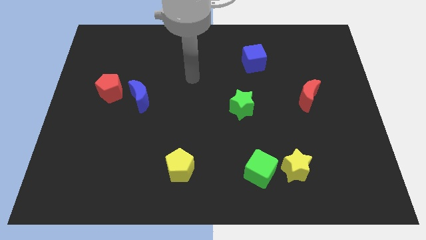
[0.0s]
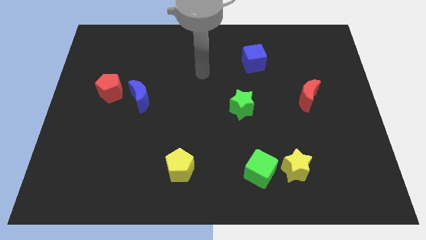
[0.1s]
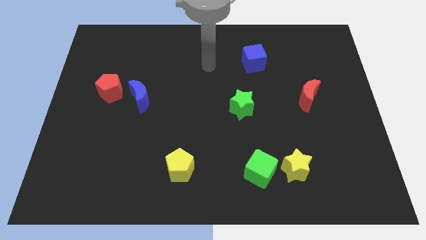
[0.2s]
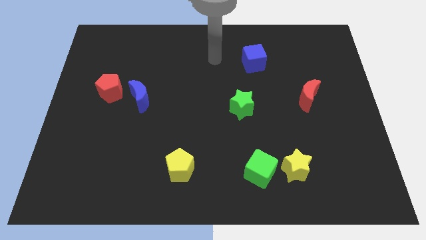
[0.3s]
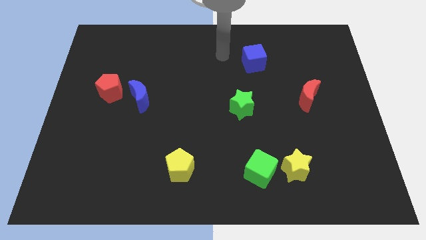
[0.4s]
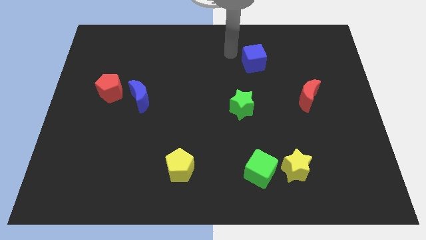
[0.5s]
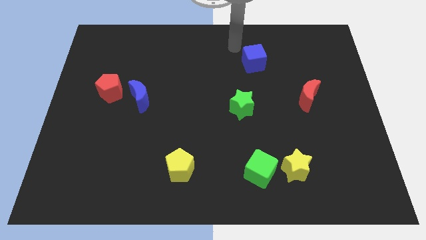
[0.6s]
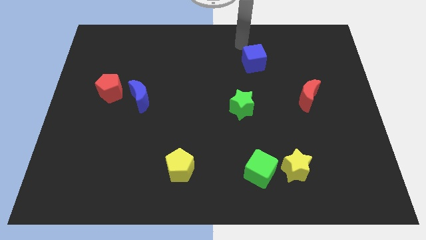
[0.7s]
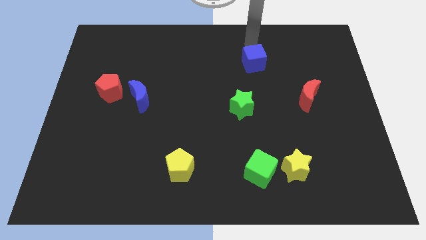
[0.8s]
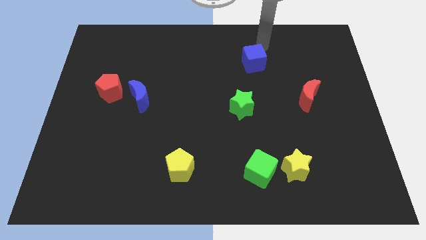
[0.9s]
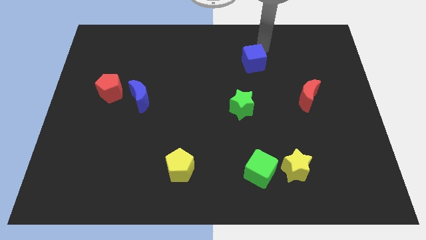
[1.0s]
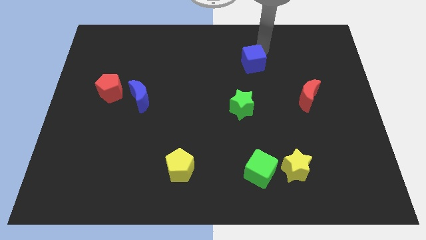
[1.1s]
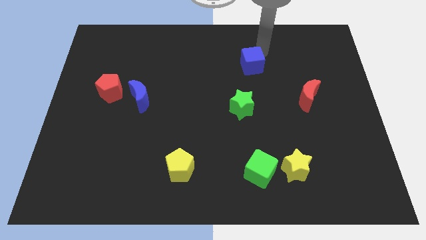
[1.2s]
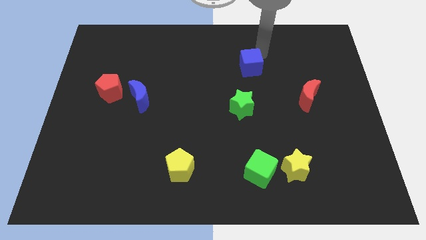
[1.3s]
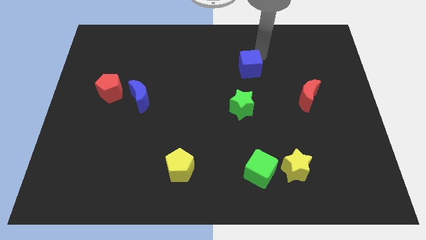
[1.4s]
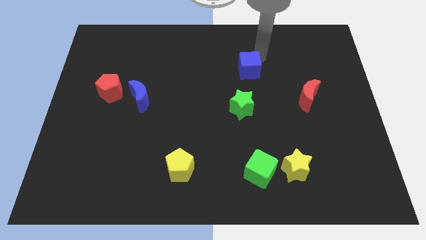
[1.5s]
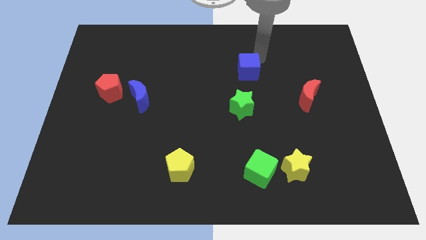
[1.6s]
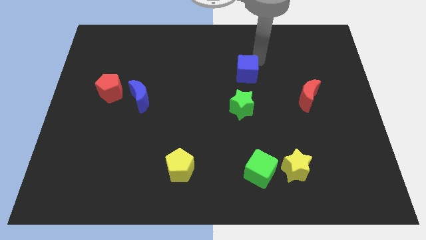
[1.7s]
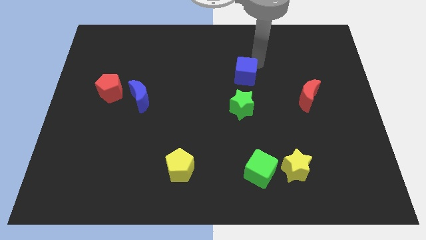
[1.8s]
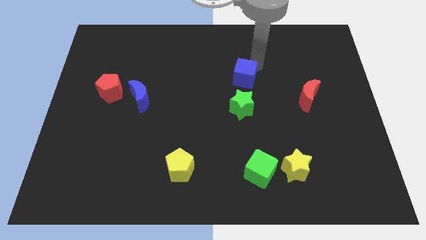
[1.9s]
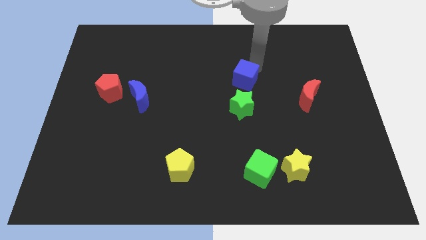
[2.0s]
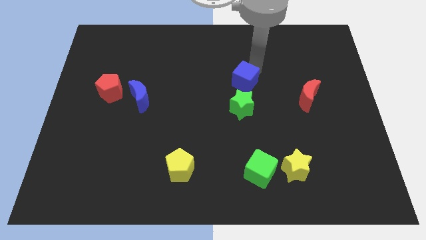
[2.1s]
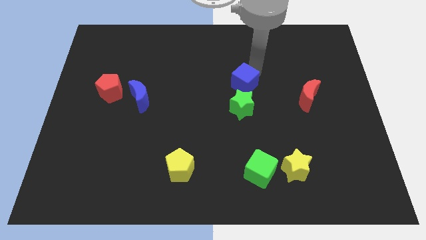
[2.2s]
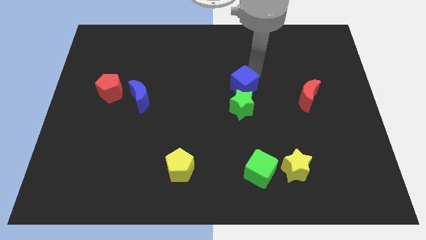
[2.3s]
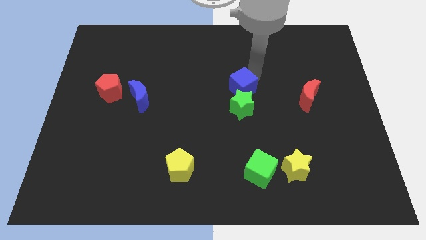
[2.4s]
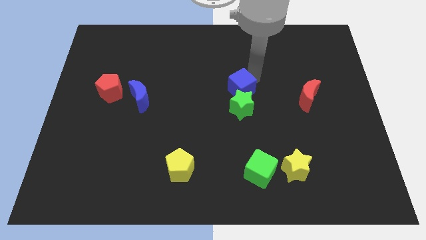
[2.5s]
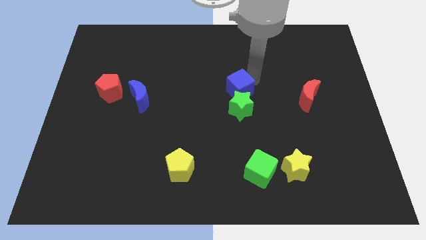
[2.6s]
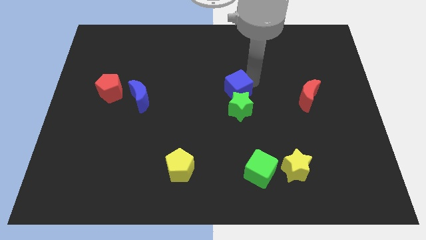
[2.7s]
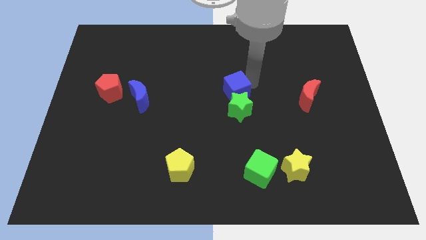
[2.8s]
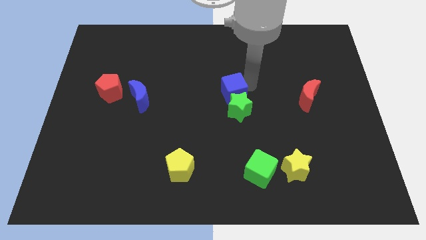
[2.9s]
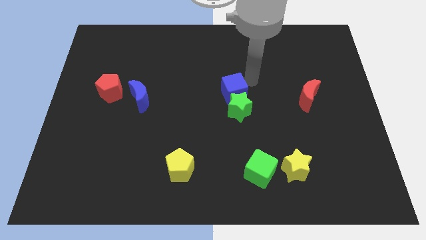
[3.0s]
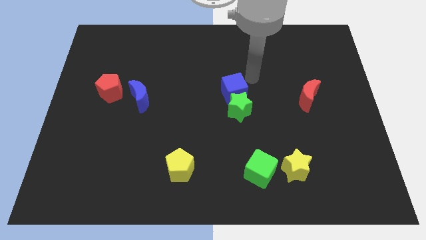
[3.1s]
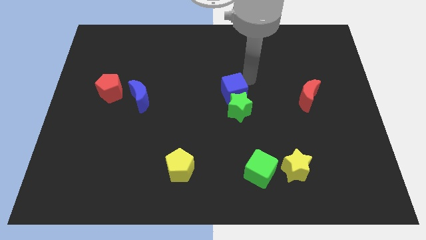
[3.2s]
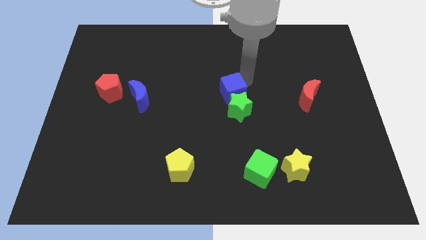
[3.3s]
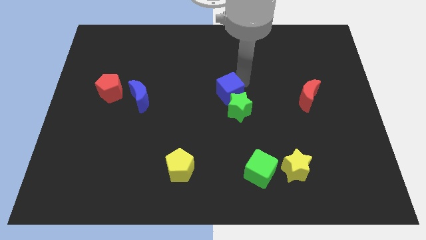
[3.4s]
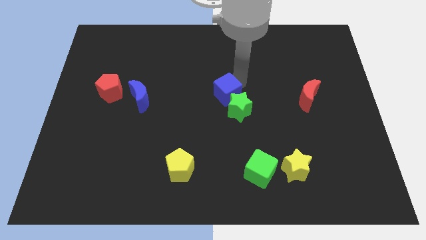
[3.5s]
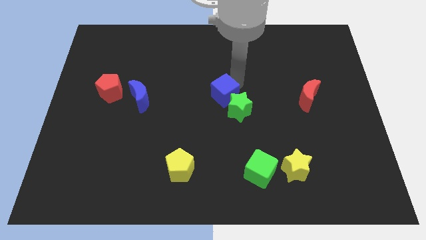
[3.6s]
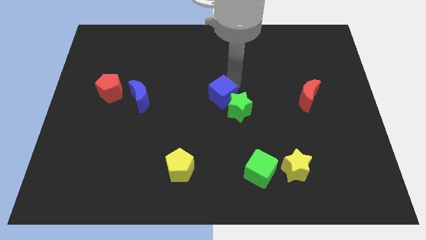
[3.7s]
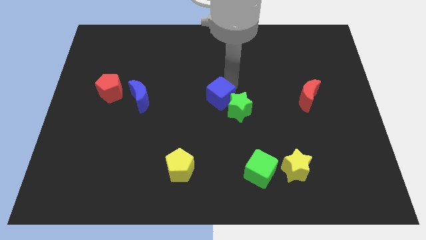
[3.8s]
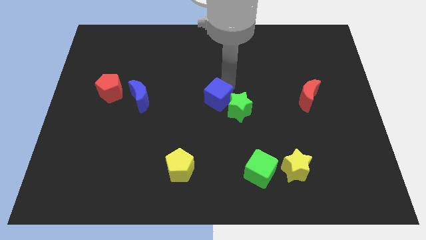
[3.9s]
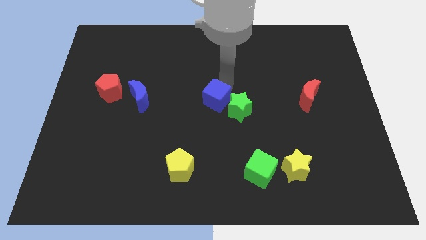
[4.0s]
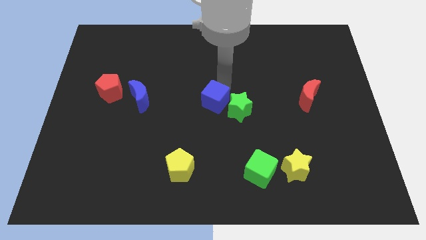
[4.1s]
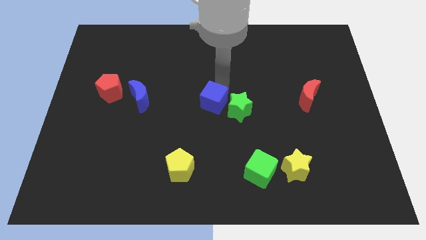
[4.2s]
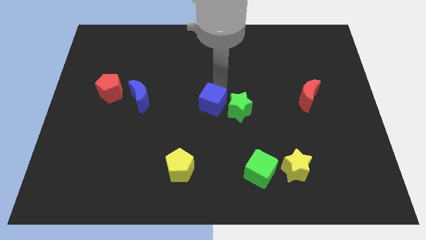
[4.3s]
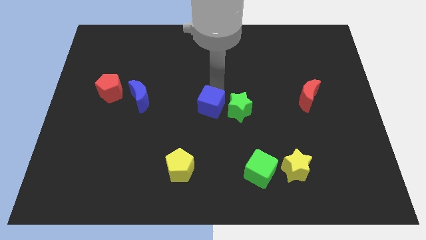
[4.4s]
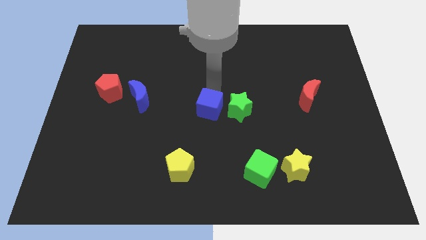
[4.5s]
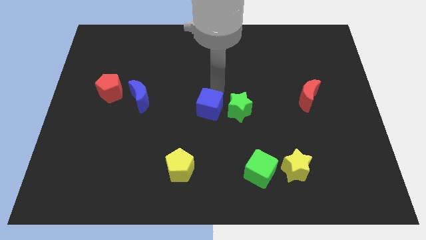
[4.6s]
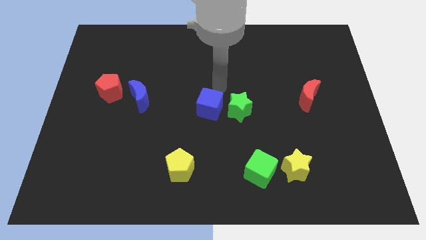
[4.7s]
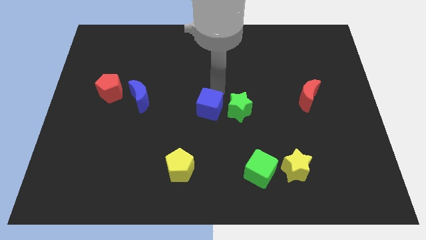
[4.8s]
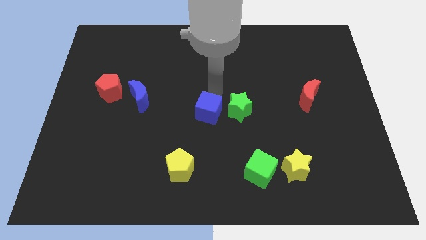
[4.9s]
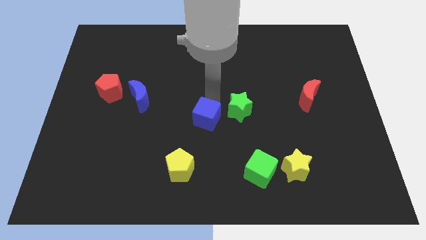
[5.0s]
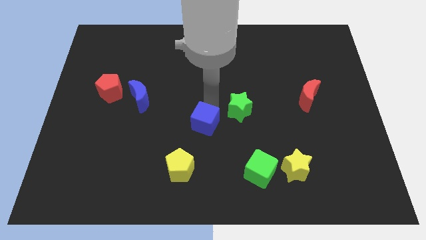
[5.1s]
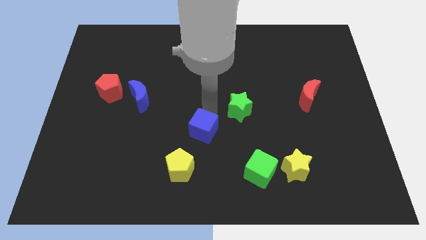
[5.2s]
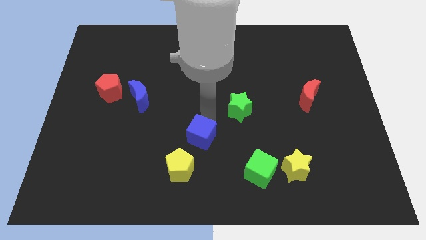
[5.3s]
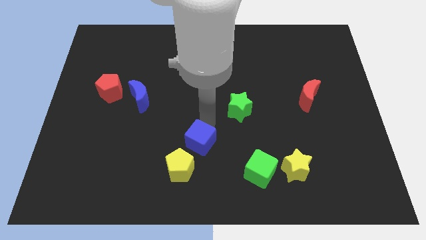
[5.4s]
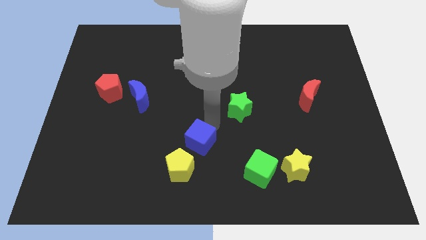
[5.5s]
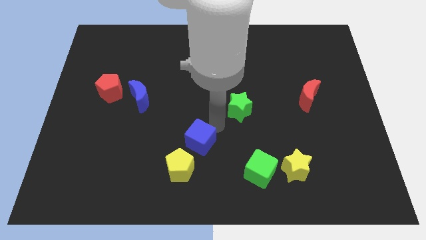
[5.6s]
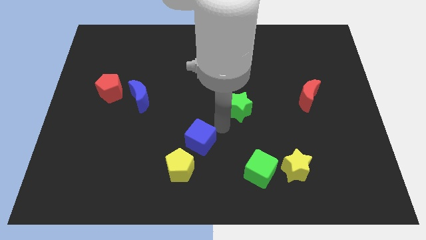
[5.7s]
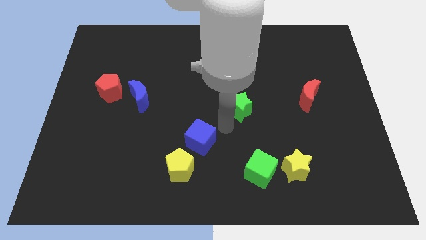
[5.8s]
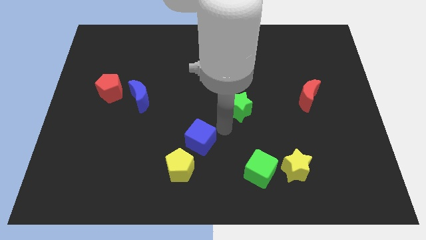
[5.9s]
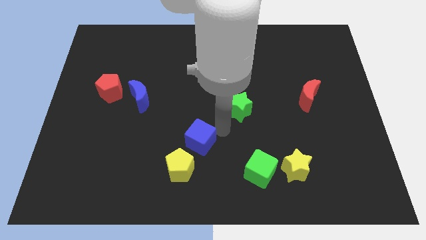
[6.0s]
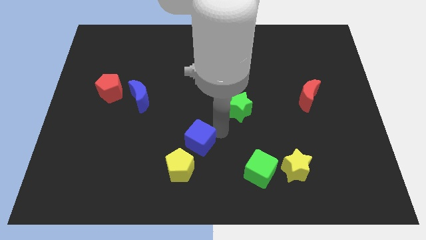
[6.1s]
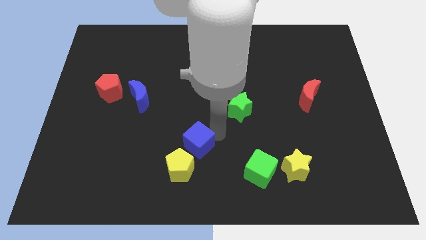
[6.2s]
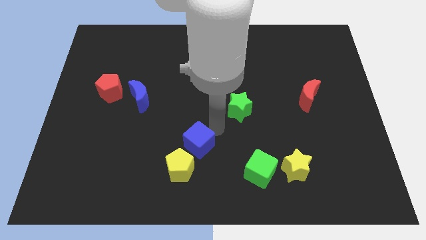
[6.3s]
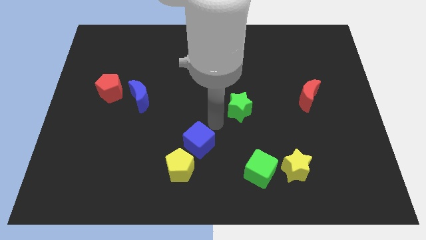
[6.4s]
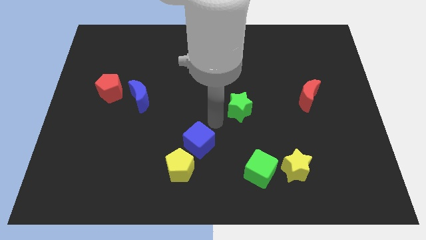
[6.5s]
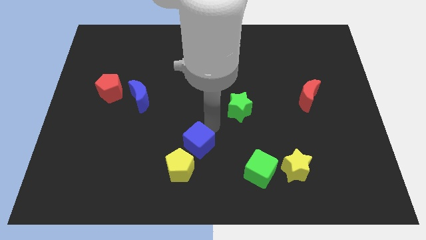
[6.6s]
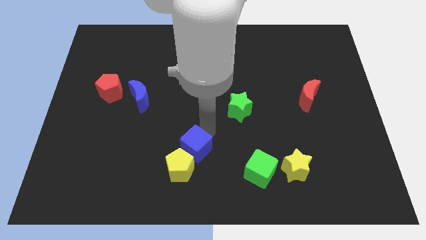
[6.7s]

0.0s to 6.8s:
put the blue cube close to the yellow pentagon
